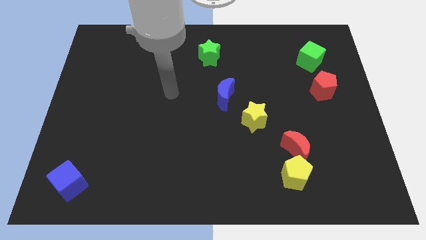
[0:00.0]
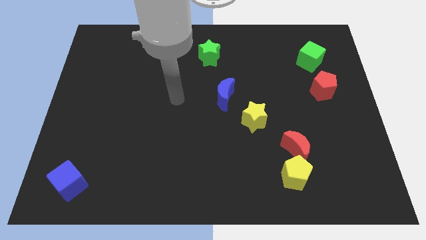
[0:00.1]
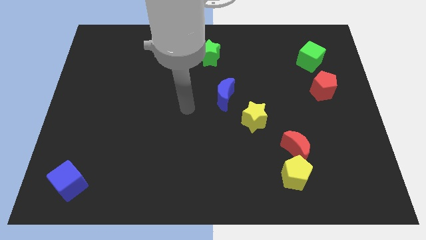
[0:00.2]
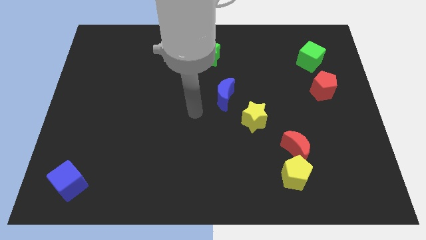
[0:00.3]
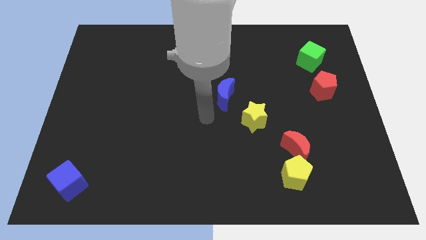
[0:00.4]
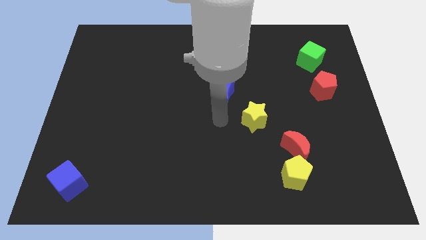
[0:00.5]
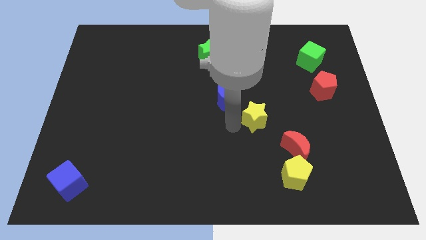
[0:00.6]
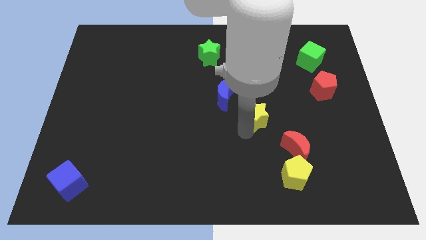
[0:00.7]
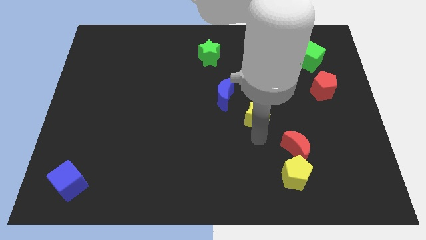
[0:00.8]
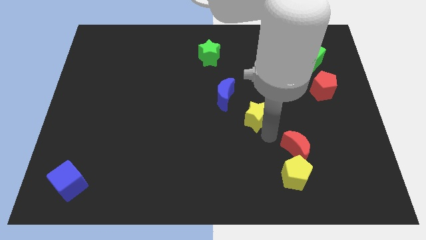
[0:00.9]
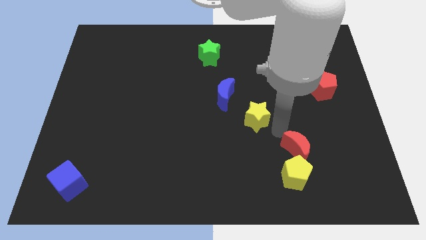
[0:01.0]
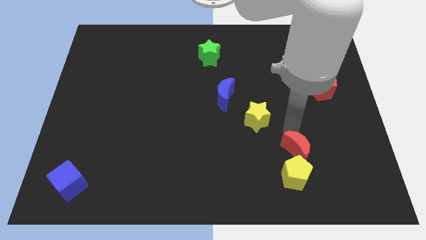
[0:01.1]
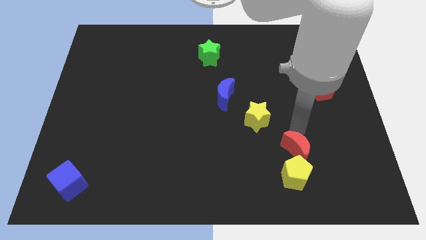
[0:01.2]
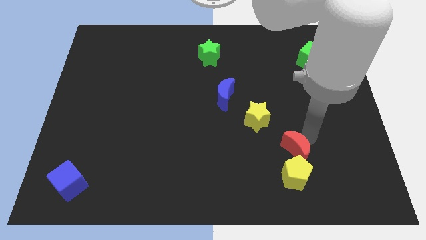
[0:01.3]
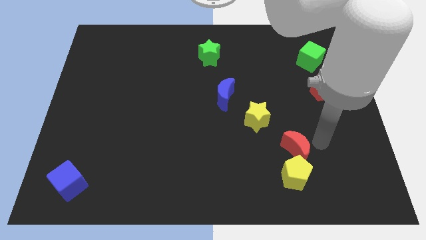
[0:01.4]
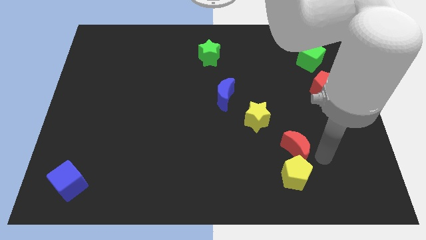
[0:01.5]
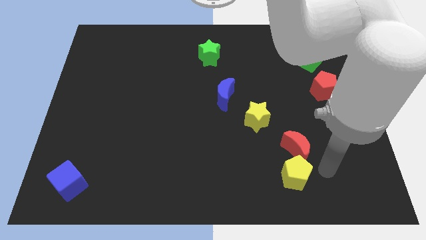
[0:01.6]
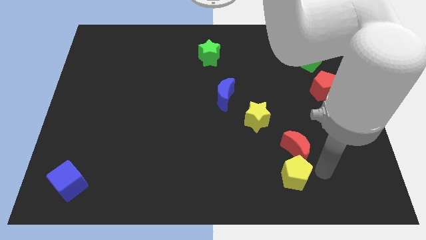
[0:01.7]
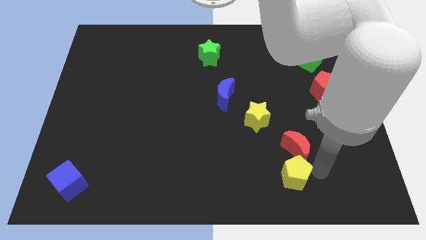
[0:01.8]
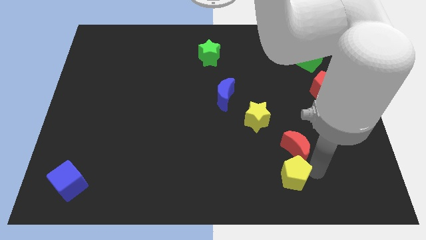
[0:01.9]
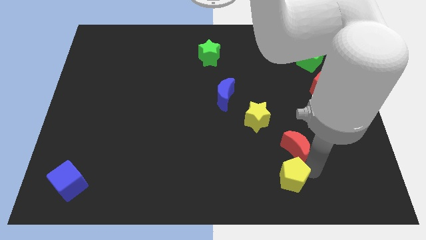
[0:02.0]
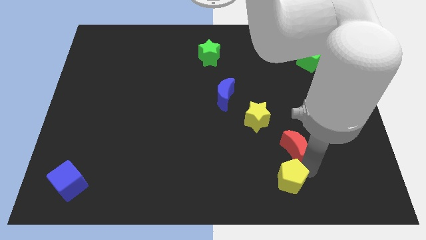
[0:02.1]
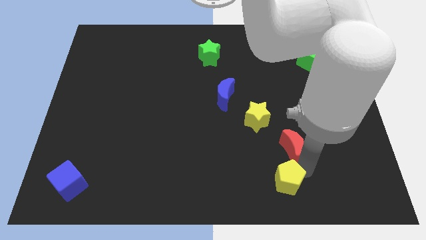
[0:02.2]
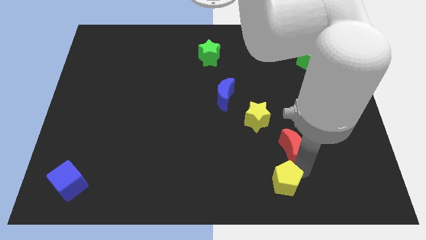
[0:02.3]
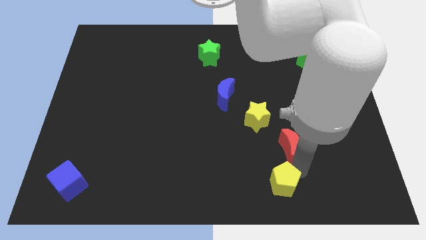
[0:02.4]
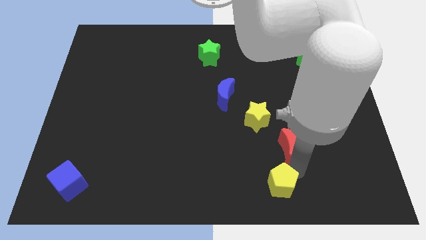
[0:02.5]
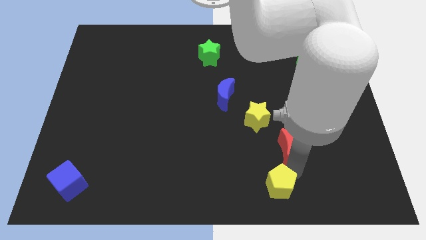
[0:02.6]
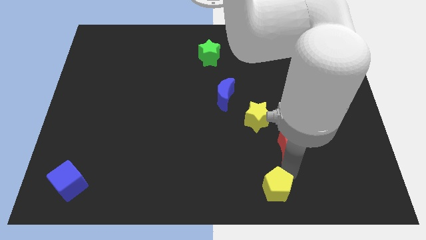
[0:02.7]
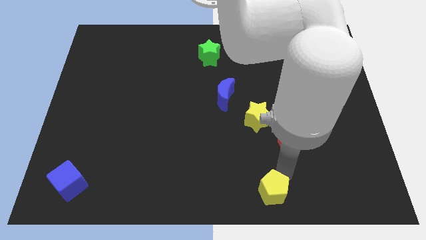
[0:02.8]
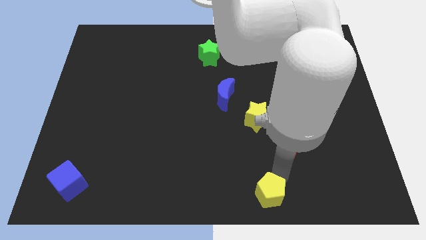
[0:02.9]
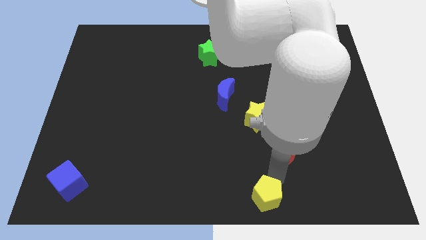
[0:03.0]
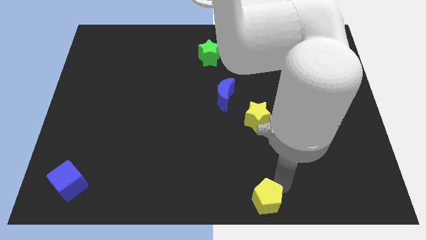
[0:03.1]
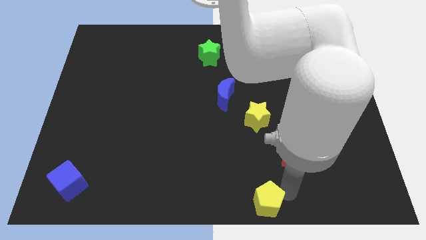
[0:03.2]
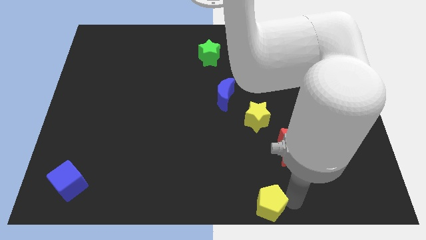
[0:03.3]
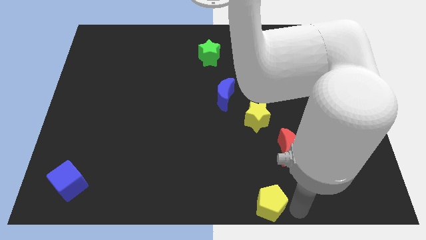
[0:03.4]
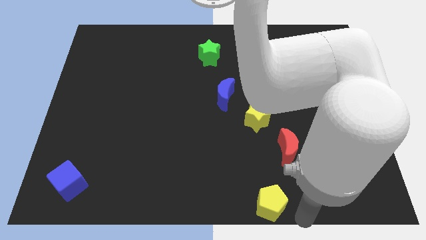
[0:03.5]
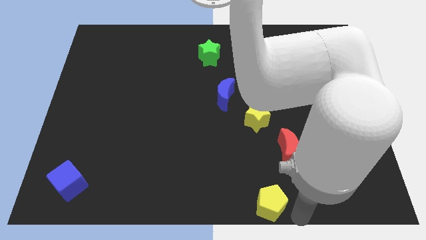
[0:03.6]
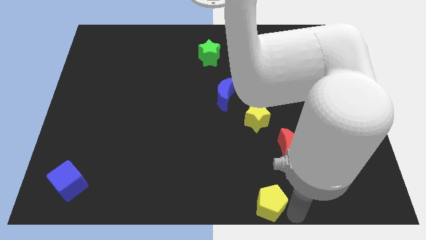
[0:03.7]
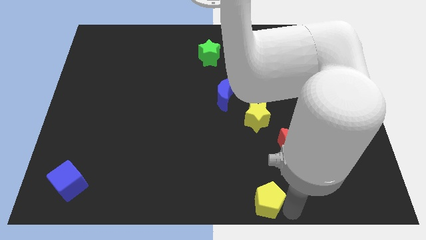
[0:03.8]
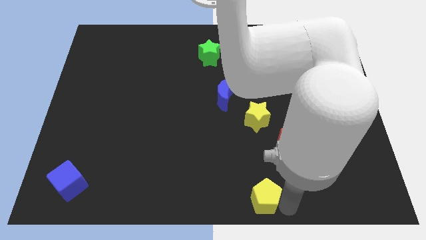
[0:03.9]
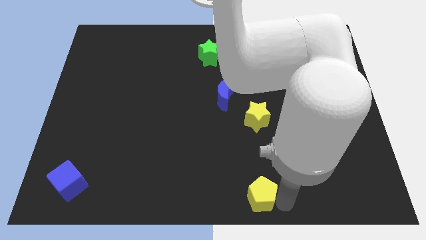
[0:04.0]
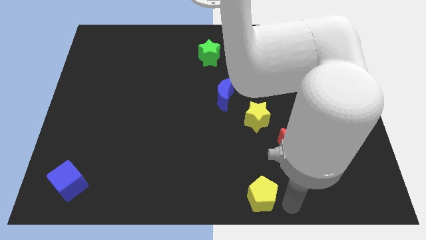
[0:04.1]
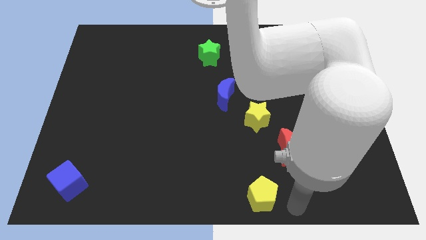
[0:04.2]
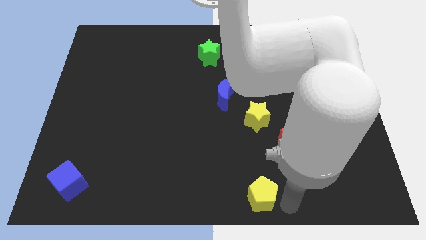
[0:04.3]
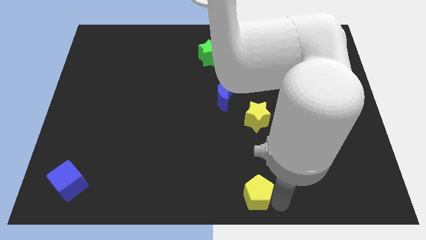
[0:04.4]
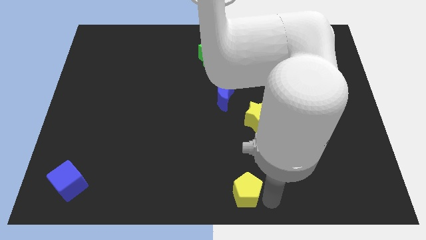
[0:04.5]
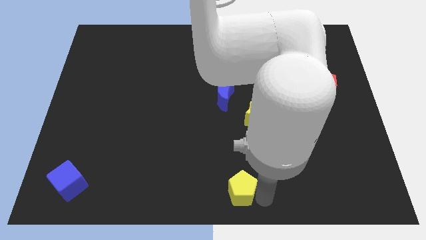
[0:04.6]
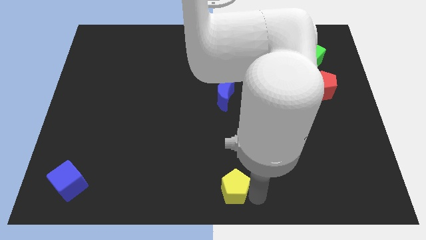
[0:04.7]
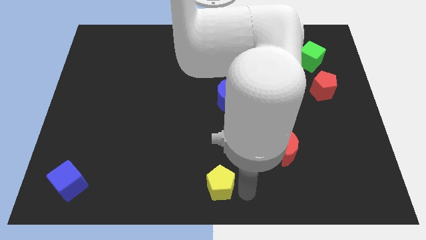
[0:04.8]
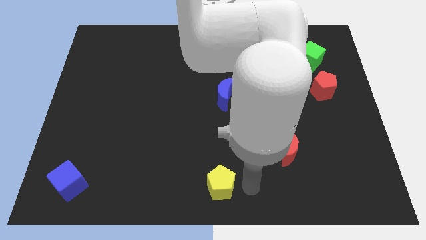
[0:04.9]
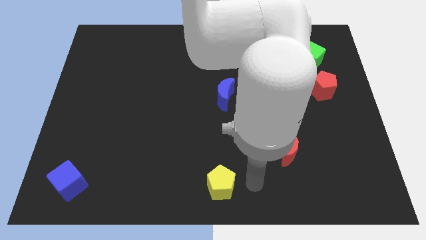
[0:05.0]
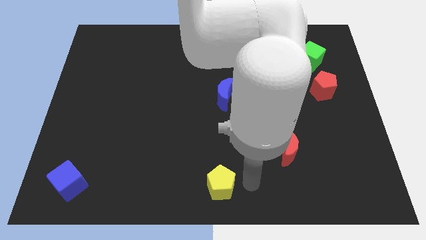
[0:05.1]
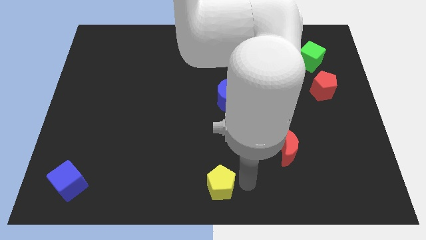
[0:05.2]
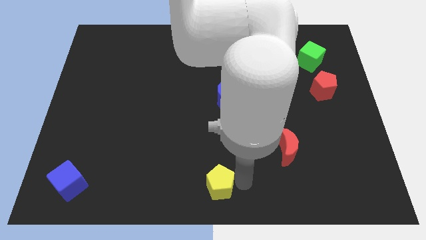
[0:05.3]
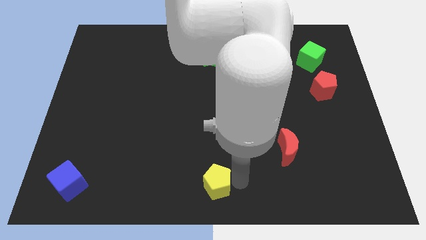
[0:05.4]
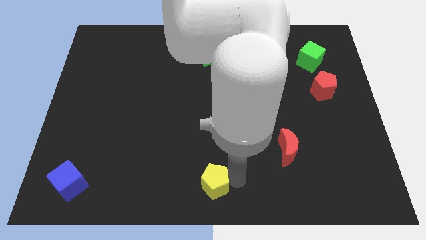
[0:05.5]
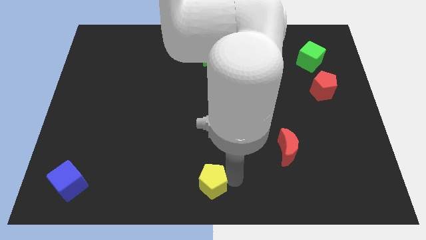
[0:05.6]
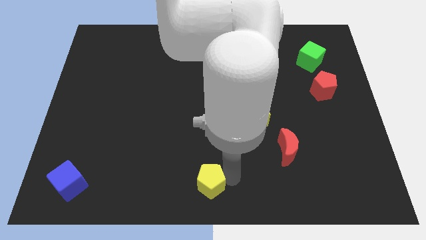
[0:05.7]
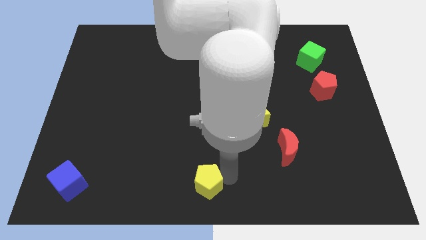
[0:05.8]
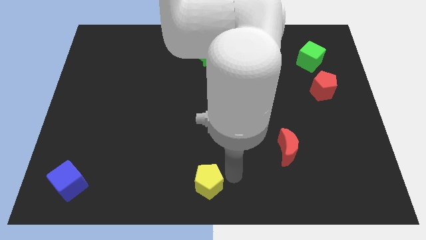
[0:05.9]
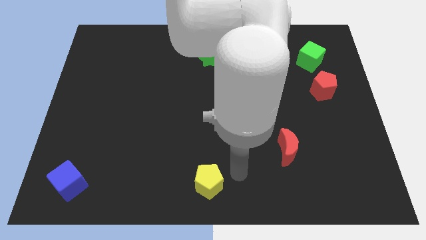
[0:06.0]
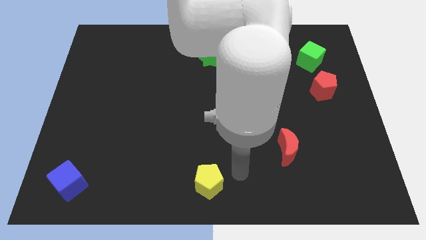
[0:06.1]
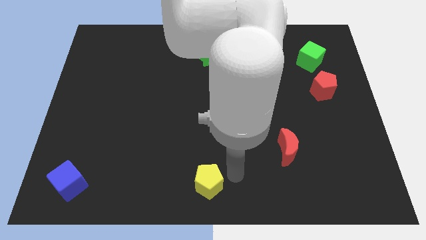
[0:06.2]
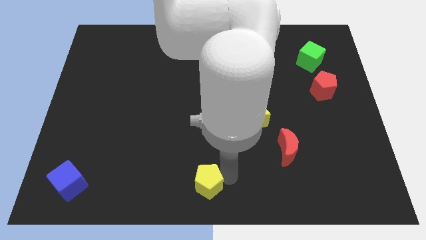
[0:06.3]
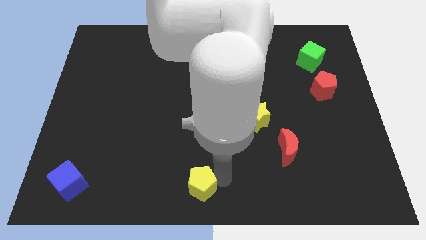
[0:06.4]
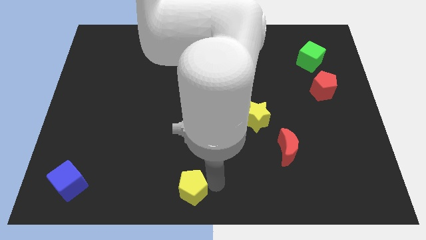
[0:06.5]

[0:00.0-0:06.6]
move the yellow pentagon left

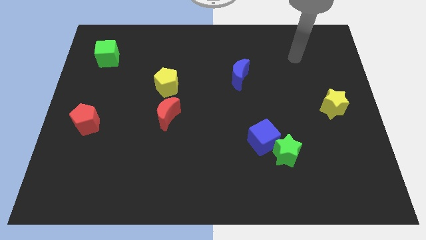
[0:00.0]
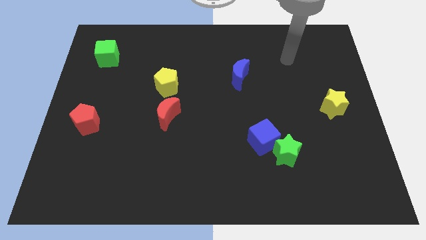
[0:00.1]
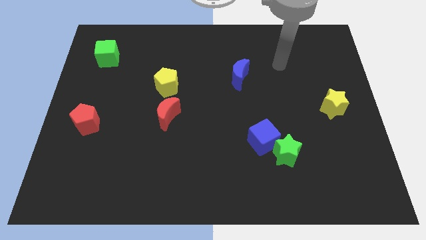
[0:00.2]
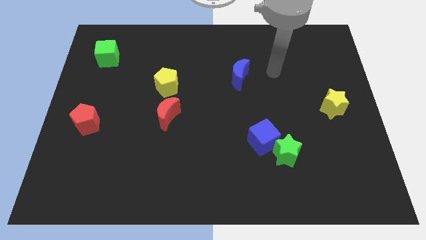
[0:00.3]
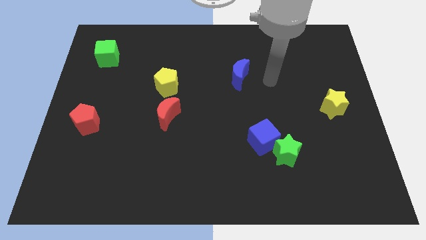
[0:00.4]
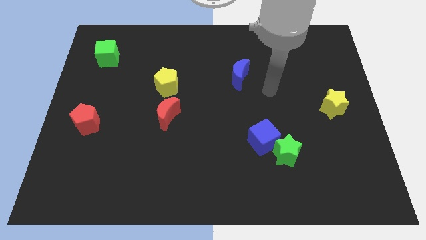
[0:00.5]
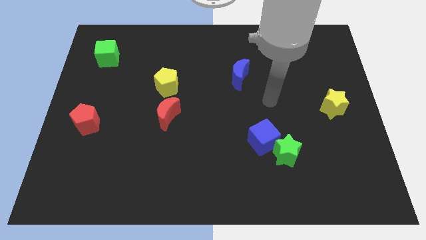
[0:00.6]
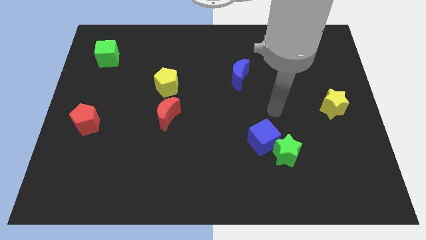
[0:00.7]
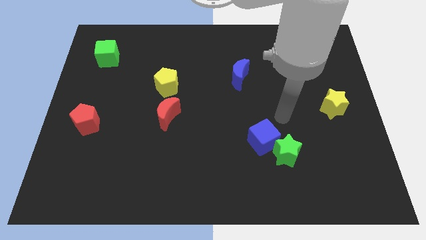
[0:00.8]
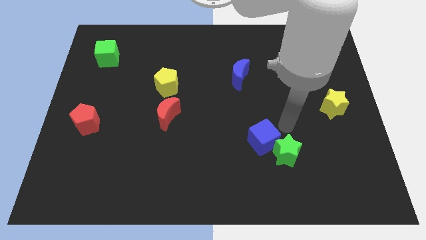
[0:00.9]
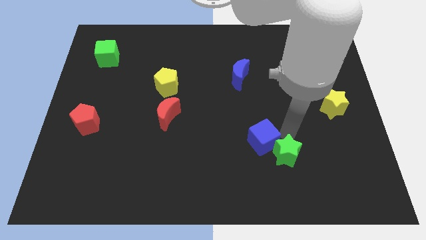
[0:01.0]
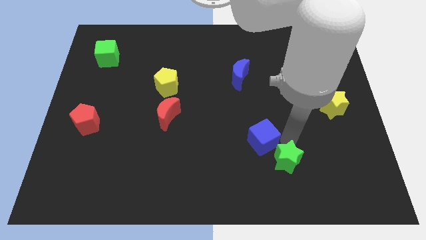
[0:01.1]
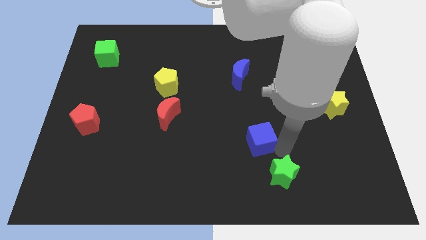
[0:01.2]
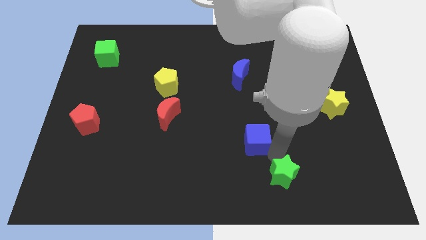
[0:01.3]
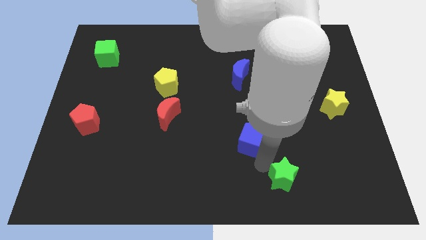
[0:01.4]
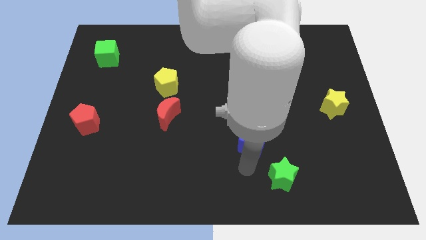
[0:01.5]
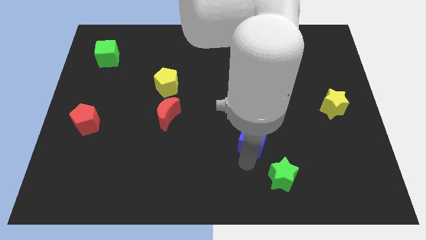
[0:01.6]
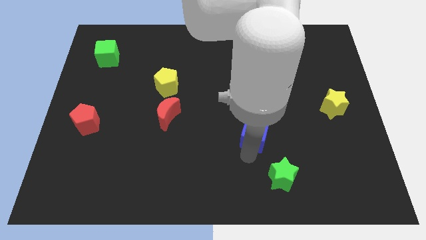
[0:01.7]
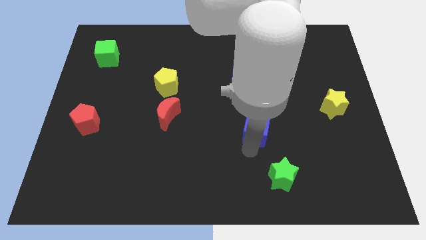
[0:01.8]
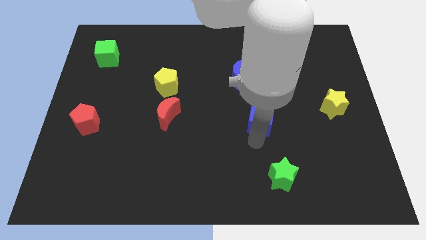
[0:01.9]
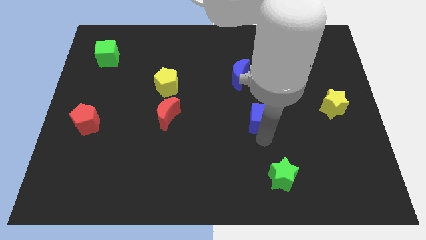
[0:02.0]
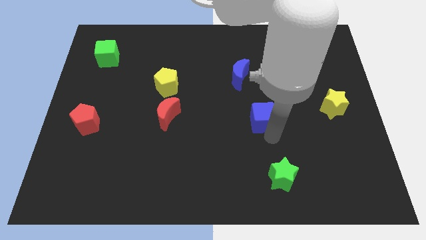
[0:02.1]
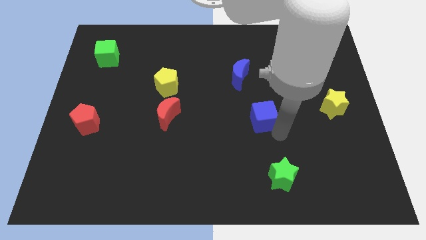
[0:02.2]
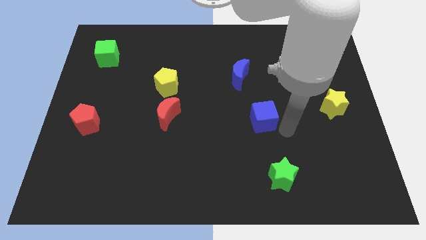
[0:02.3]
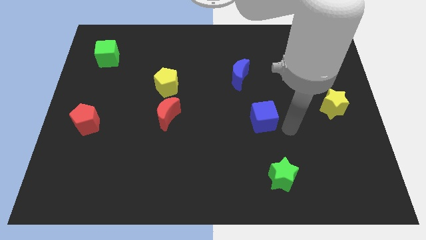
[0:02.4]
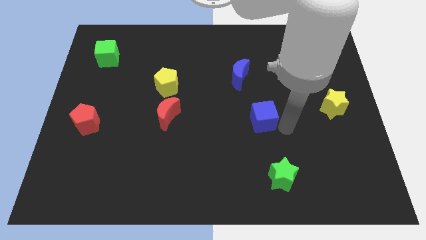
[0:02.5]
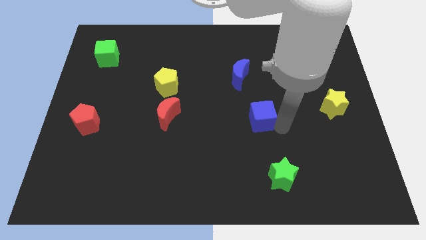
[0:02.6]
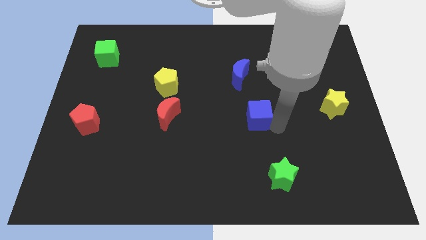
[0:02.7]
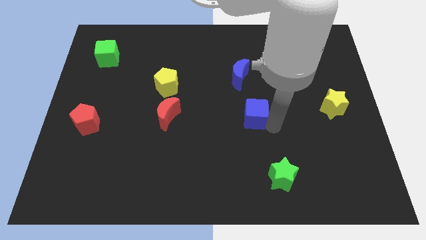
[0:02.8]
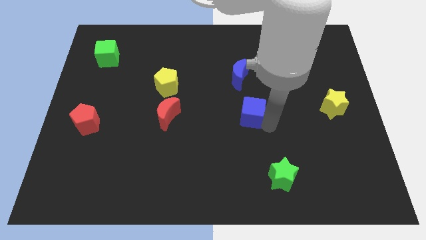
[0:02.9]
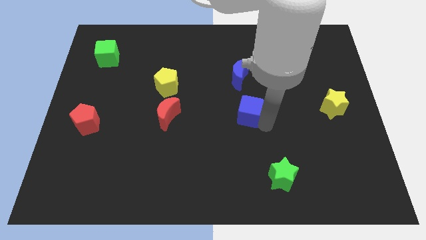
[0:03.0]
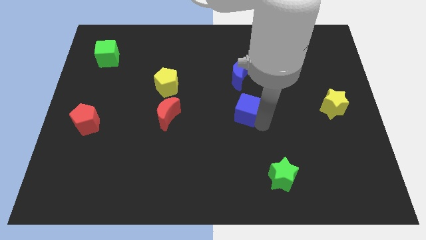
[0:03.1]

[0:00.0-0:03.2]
move the blue cube up and to the left a bit
